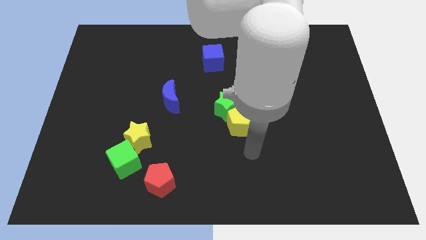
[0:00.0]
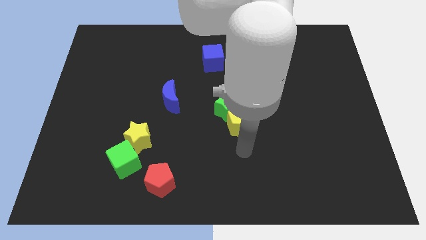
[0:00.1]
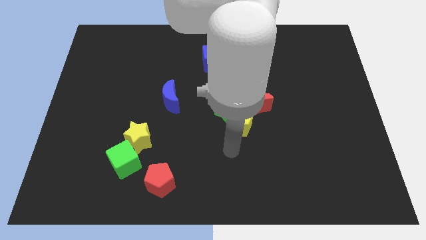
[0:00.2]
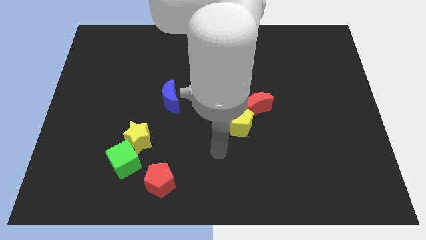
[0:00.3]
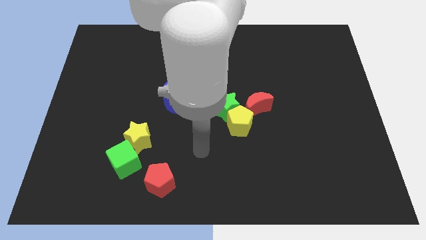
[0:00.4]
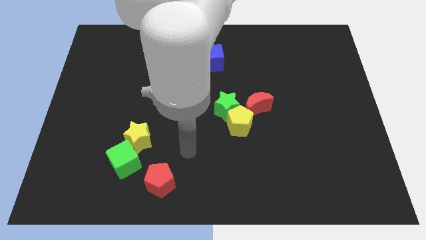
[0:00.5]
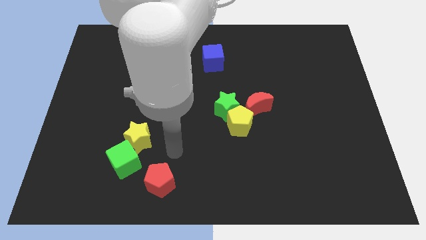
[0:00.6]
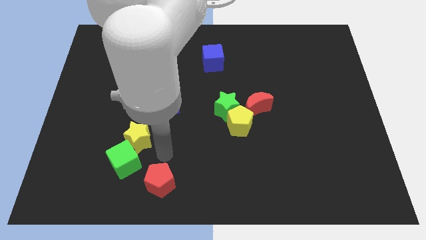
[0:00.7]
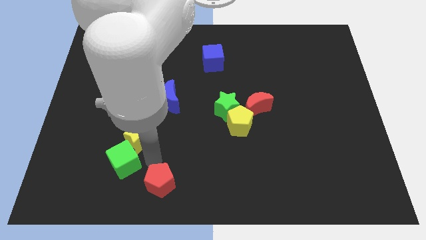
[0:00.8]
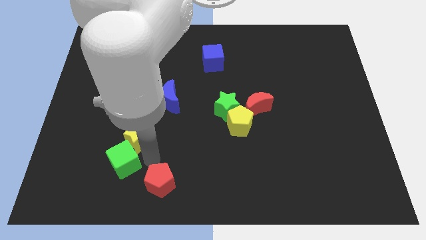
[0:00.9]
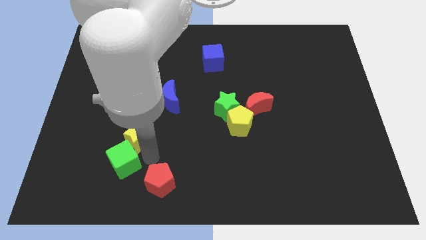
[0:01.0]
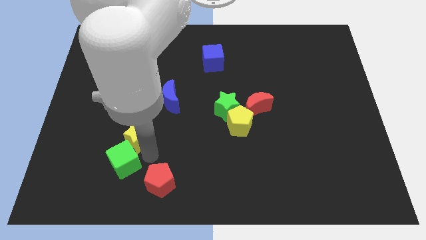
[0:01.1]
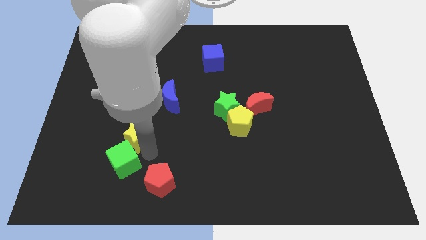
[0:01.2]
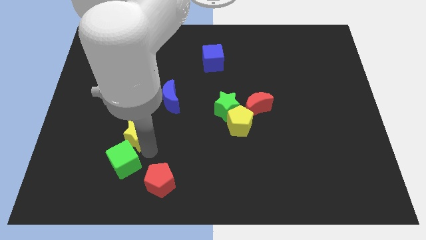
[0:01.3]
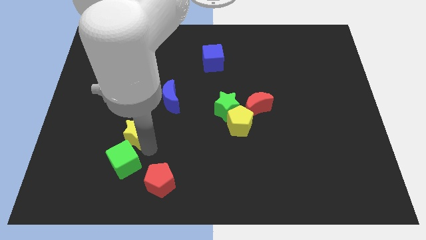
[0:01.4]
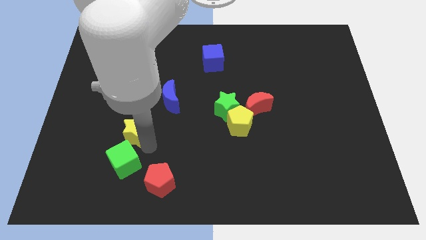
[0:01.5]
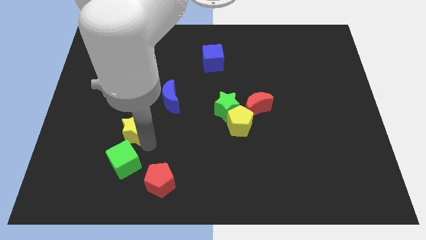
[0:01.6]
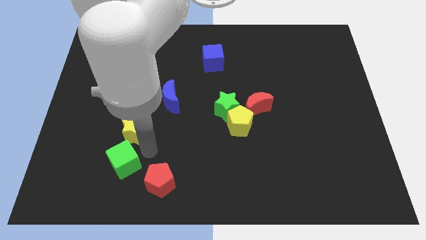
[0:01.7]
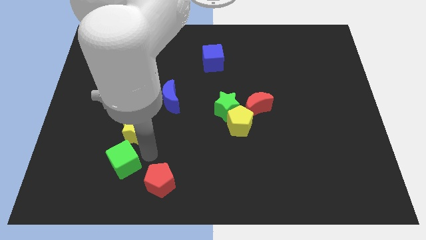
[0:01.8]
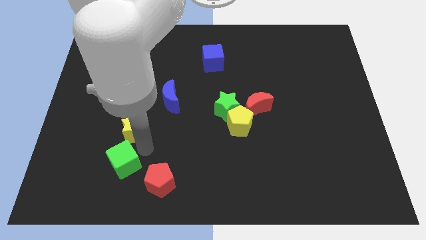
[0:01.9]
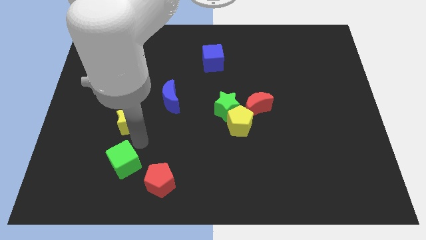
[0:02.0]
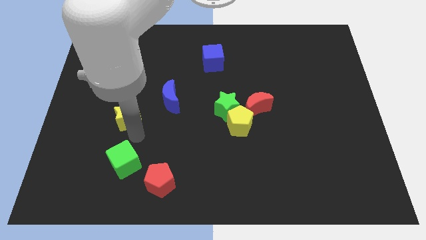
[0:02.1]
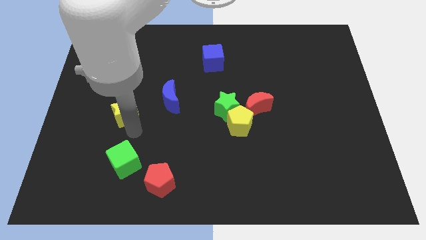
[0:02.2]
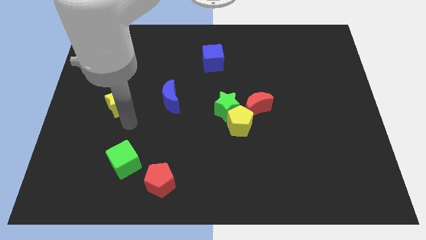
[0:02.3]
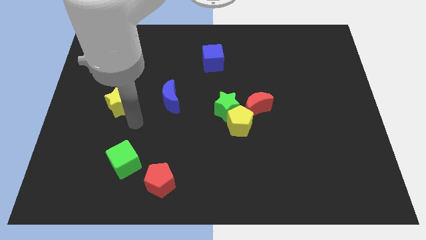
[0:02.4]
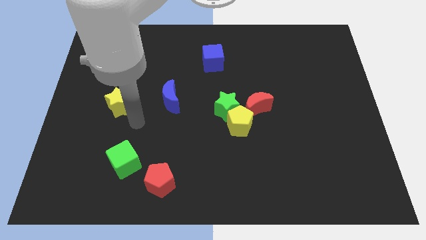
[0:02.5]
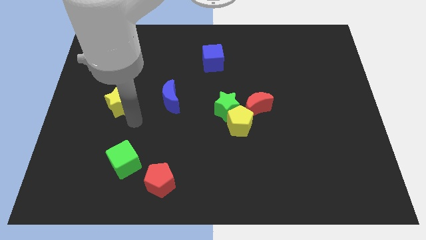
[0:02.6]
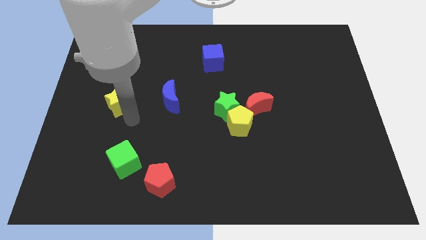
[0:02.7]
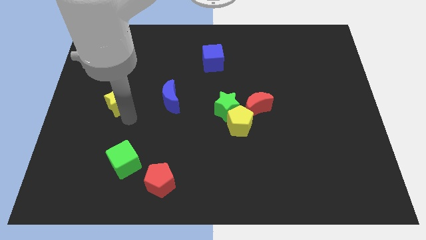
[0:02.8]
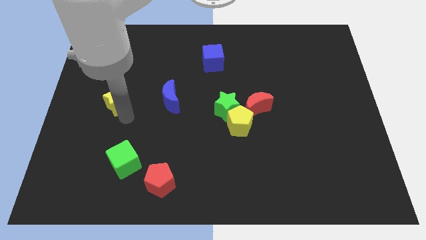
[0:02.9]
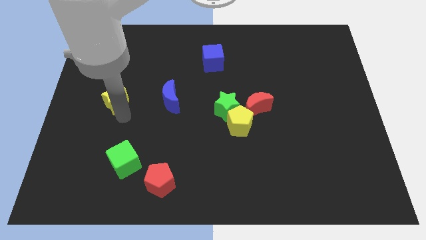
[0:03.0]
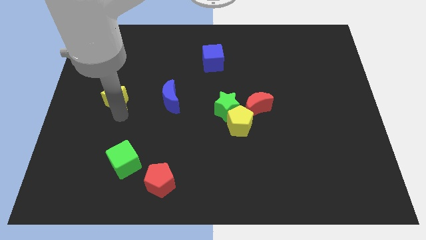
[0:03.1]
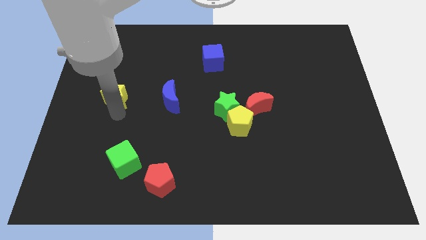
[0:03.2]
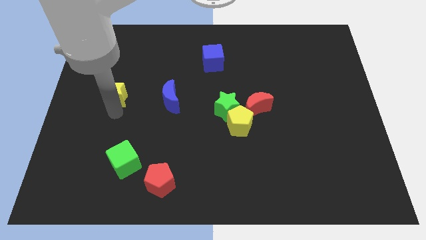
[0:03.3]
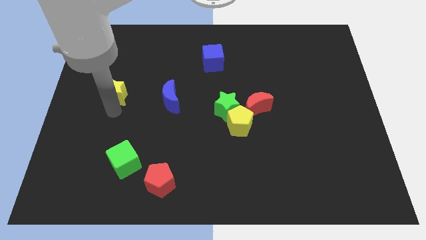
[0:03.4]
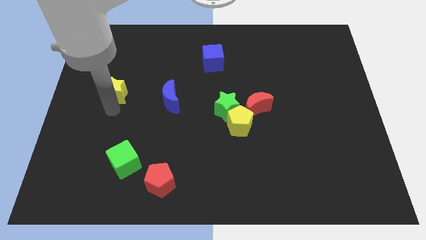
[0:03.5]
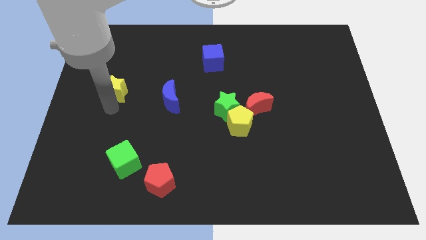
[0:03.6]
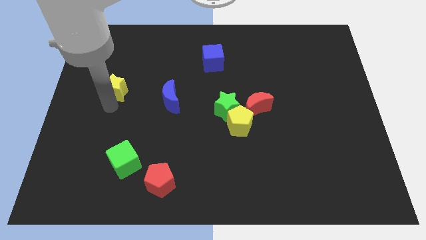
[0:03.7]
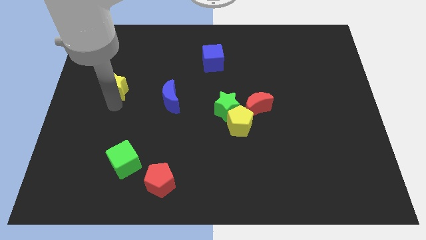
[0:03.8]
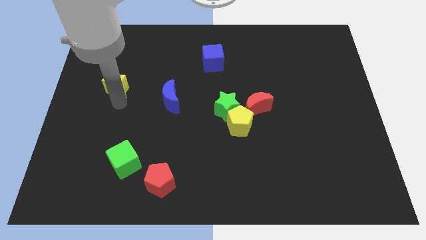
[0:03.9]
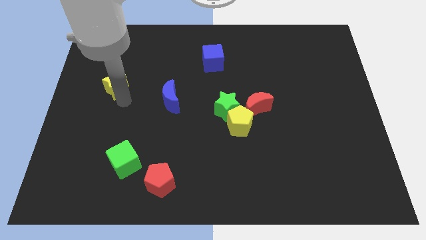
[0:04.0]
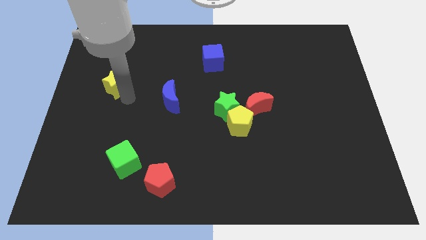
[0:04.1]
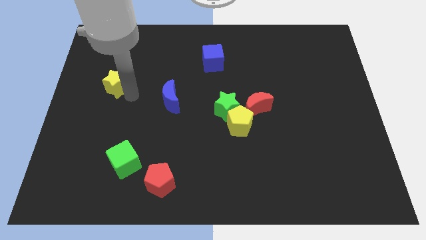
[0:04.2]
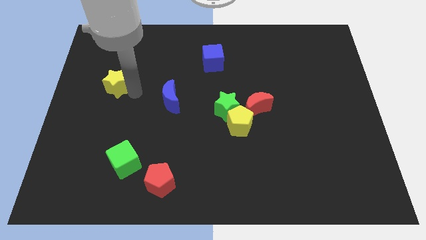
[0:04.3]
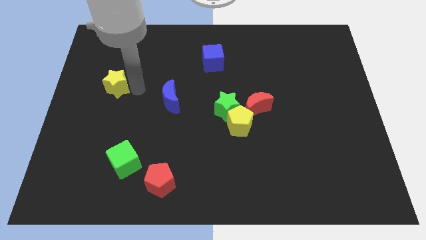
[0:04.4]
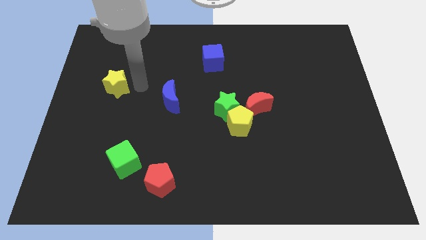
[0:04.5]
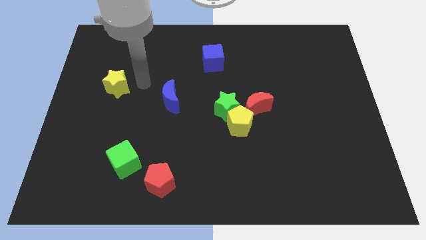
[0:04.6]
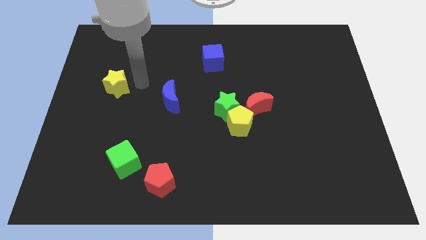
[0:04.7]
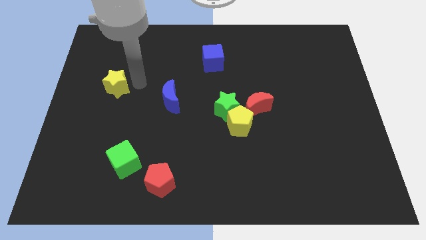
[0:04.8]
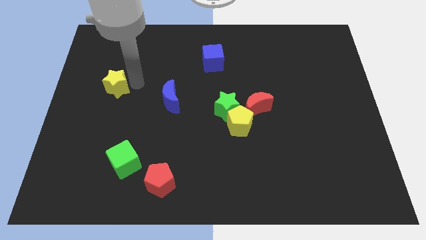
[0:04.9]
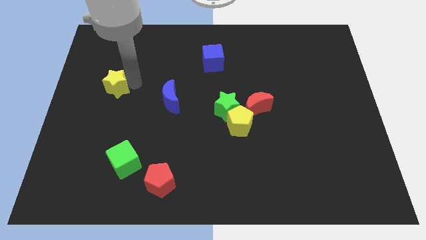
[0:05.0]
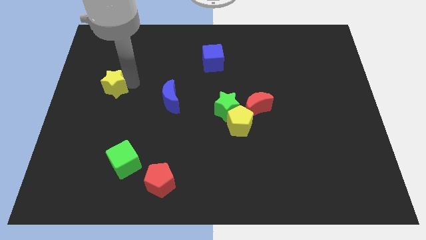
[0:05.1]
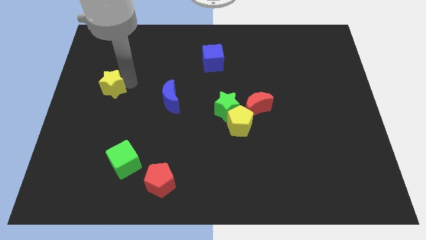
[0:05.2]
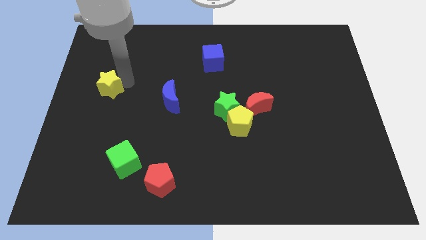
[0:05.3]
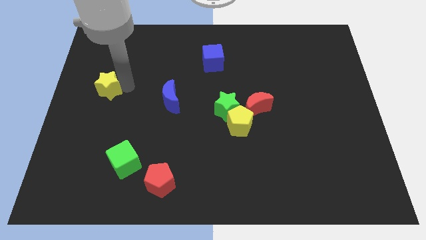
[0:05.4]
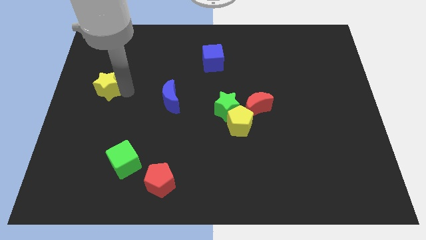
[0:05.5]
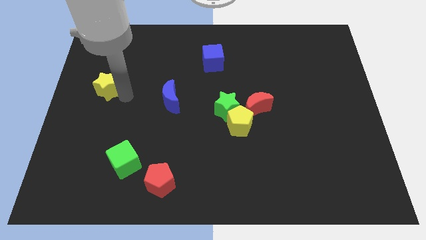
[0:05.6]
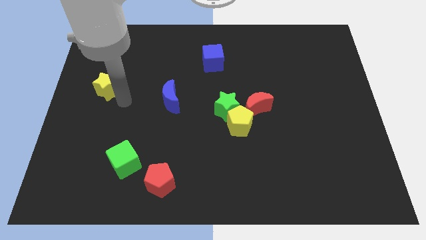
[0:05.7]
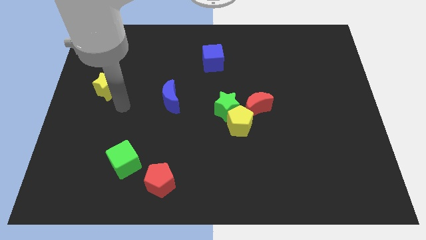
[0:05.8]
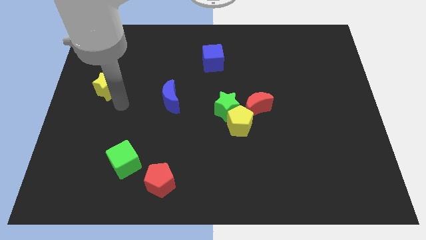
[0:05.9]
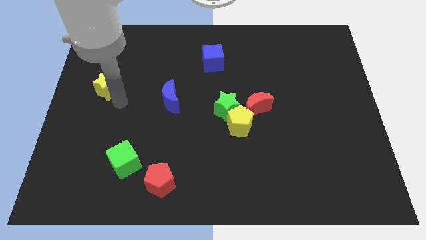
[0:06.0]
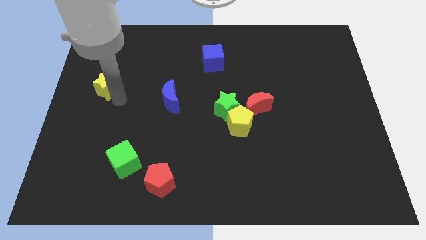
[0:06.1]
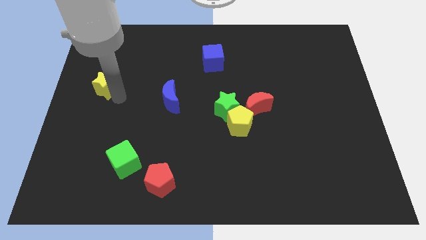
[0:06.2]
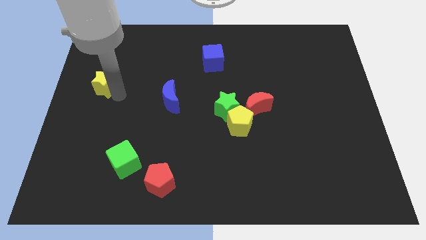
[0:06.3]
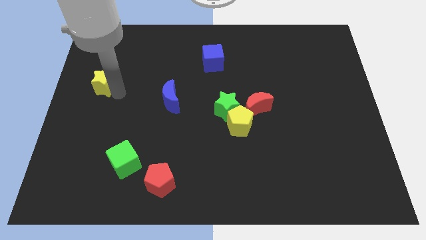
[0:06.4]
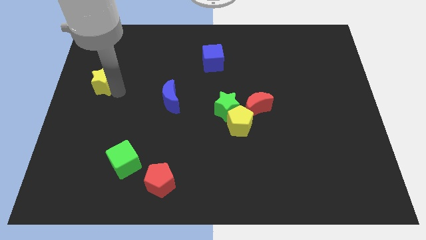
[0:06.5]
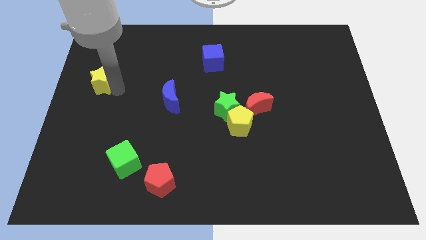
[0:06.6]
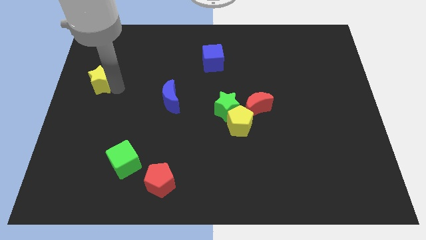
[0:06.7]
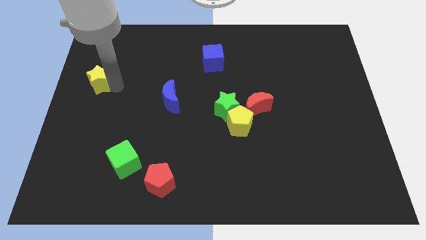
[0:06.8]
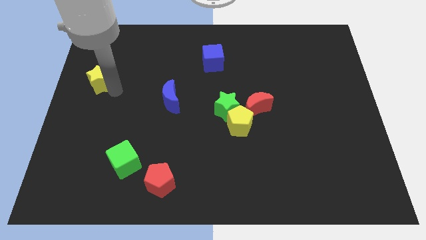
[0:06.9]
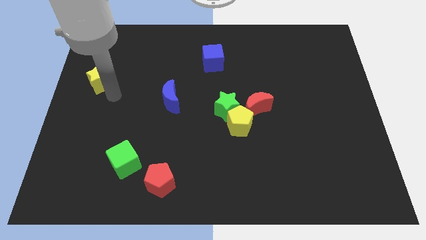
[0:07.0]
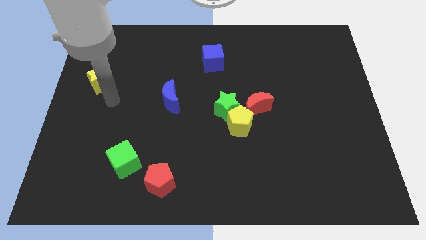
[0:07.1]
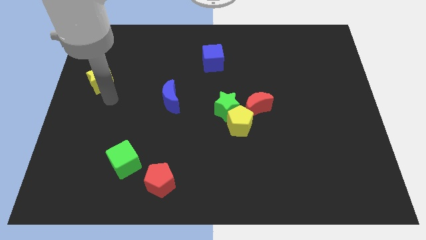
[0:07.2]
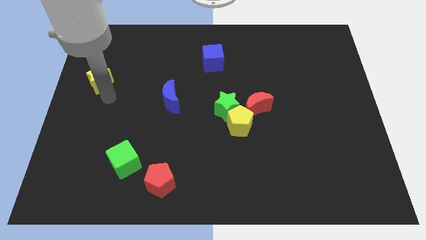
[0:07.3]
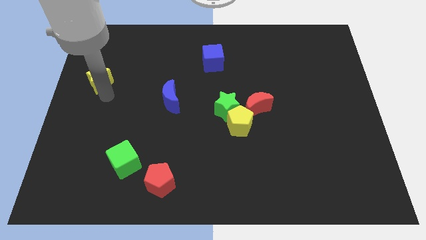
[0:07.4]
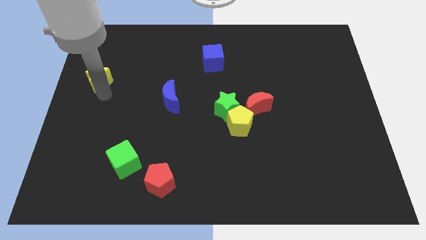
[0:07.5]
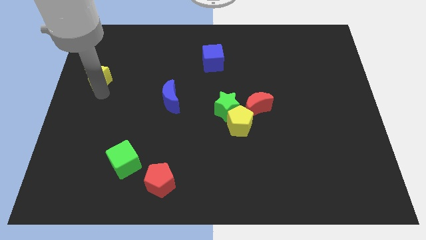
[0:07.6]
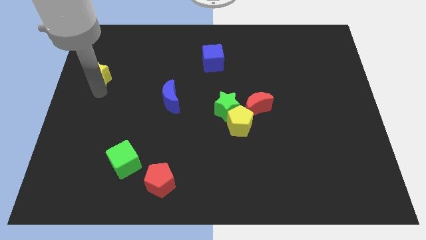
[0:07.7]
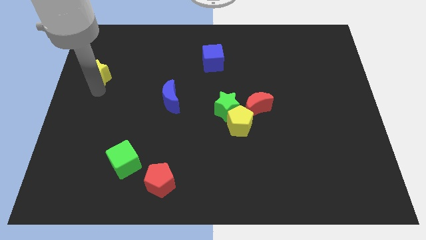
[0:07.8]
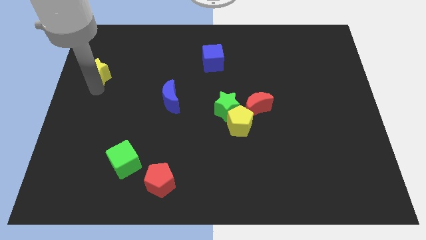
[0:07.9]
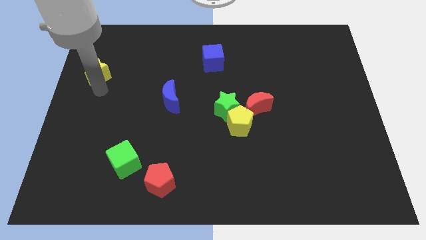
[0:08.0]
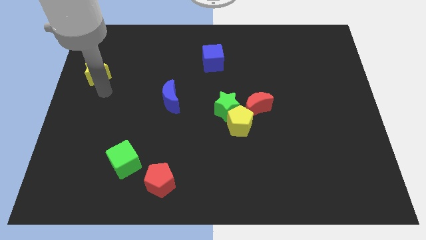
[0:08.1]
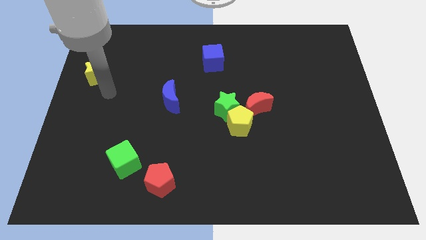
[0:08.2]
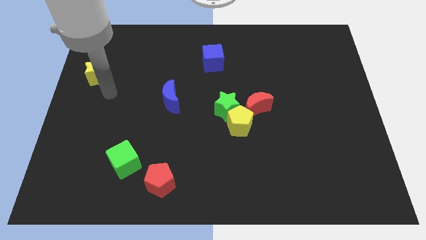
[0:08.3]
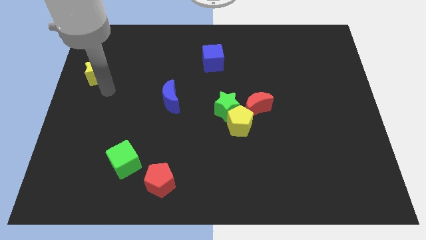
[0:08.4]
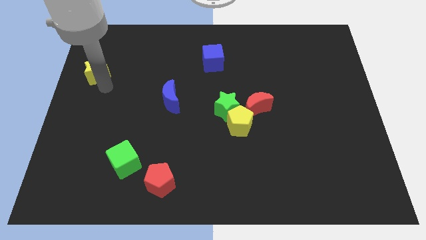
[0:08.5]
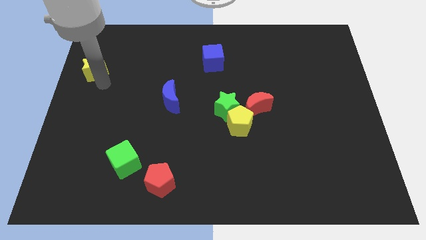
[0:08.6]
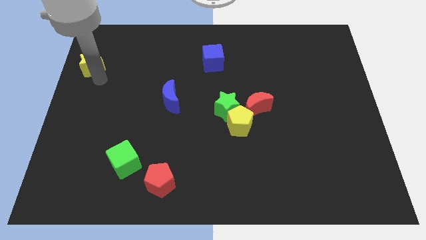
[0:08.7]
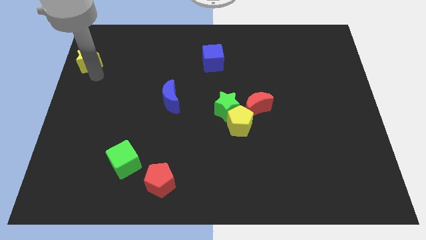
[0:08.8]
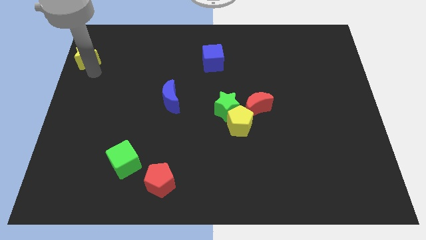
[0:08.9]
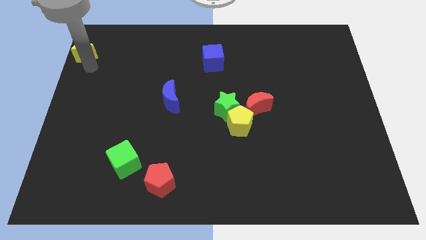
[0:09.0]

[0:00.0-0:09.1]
push the yellow star to the top left of the board
